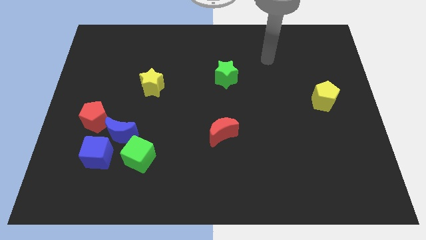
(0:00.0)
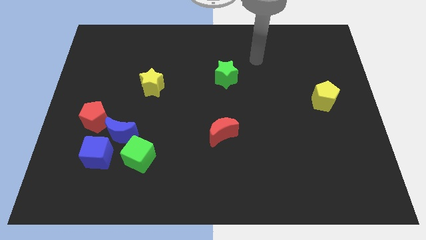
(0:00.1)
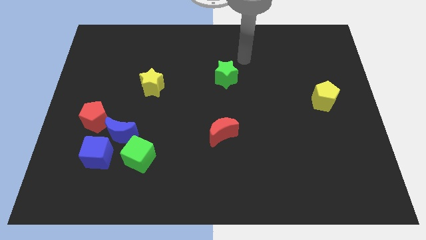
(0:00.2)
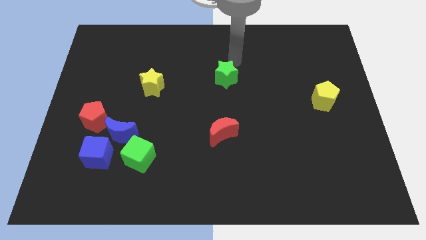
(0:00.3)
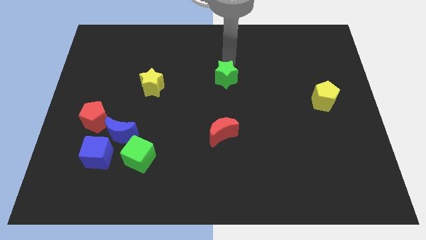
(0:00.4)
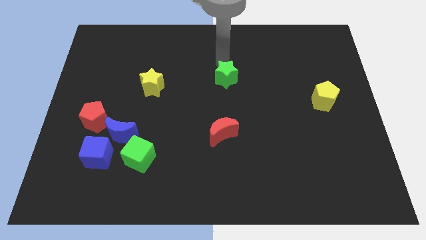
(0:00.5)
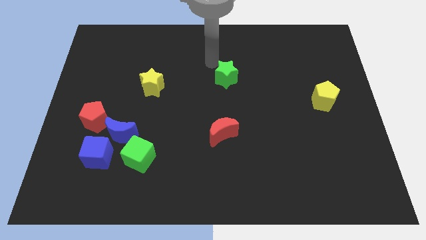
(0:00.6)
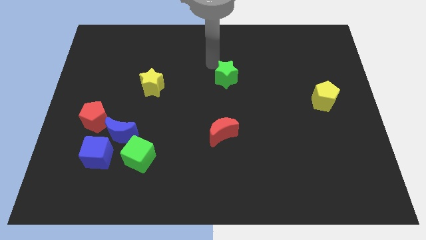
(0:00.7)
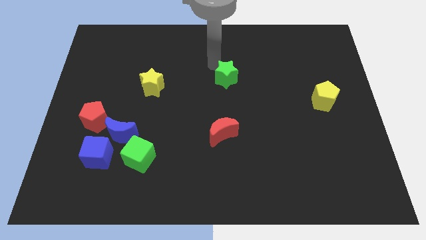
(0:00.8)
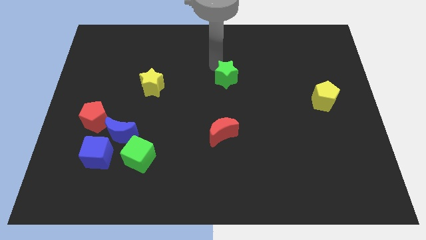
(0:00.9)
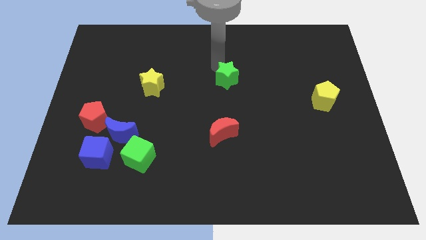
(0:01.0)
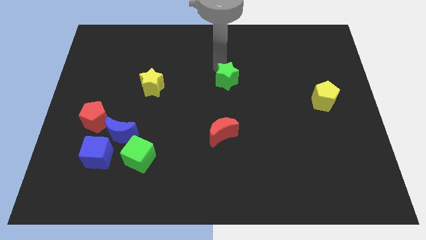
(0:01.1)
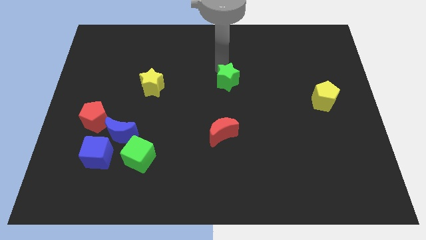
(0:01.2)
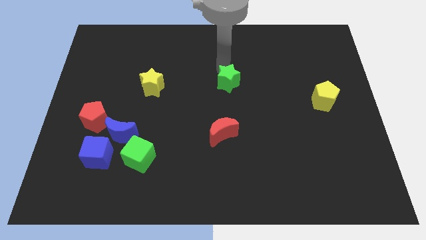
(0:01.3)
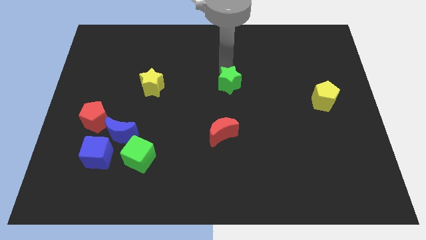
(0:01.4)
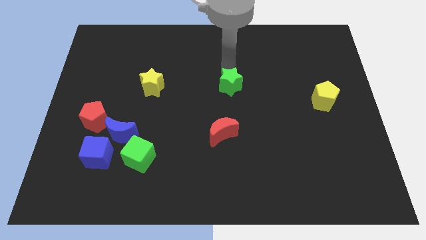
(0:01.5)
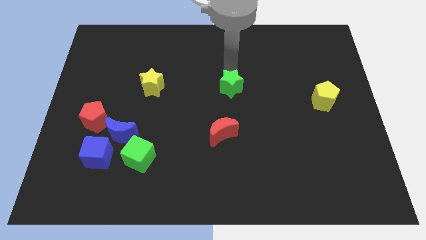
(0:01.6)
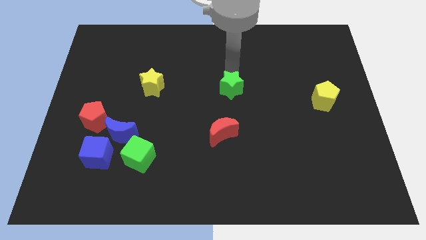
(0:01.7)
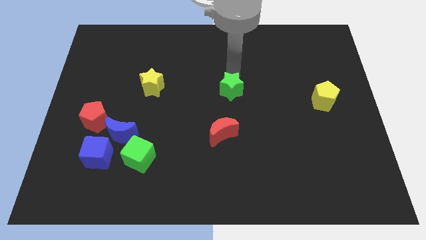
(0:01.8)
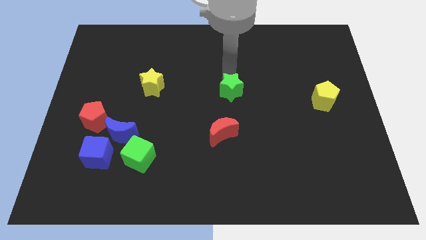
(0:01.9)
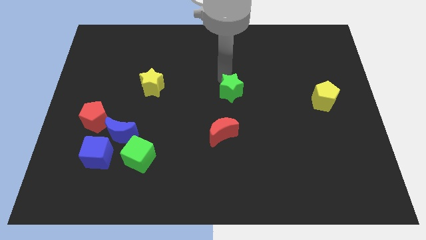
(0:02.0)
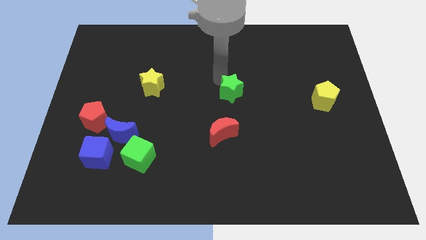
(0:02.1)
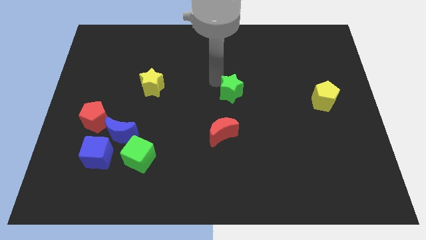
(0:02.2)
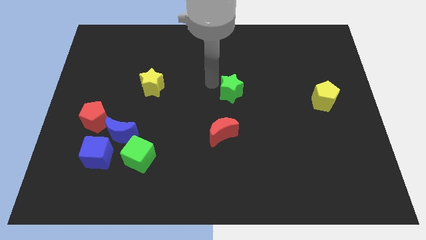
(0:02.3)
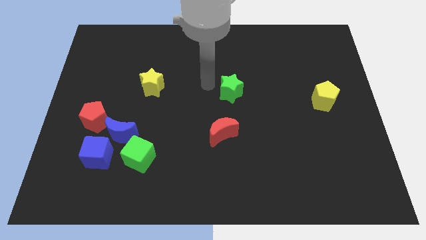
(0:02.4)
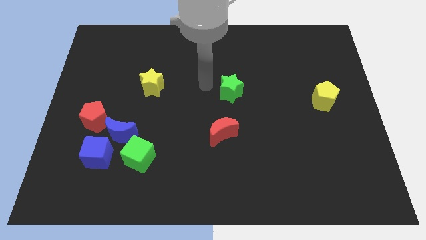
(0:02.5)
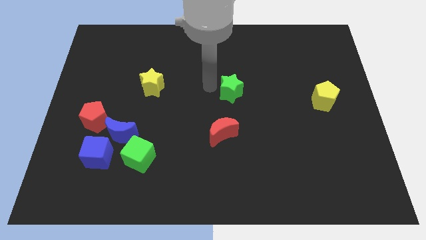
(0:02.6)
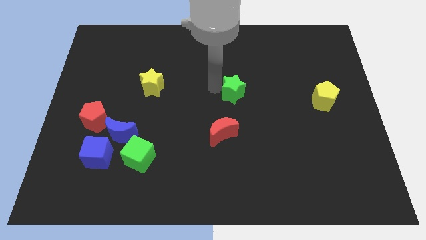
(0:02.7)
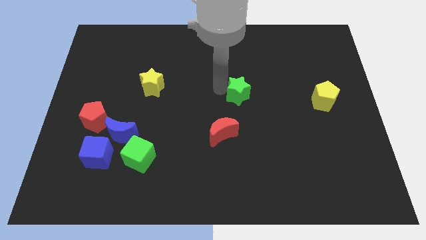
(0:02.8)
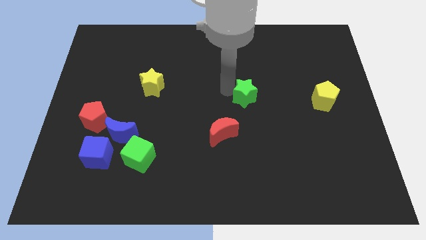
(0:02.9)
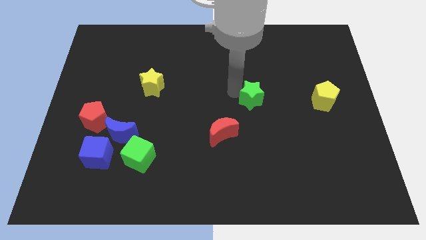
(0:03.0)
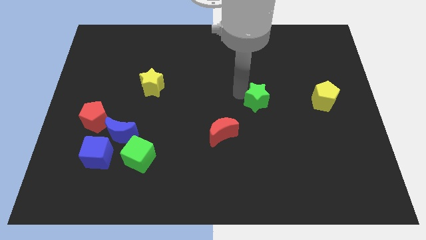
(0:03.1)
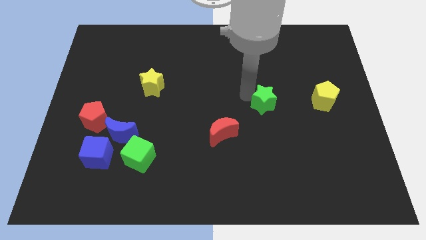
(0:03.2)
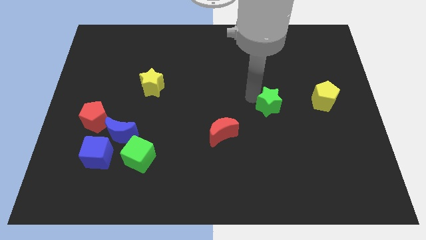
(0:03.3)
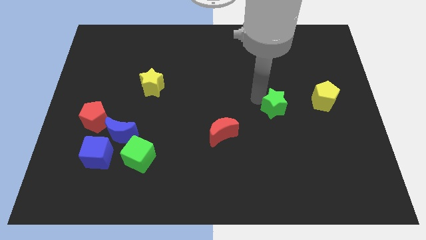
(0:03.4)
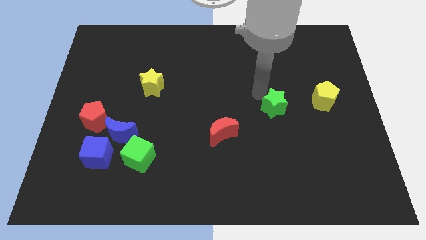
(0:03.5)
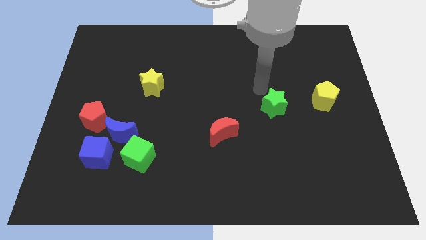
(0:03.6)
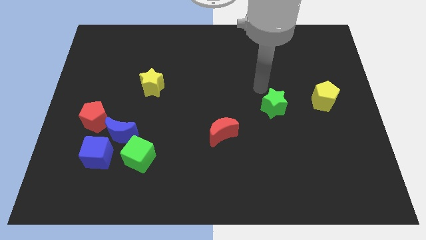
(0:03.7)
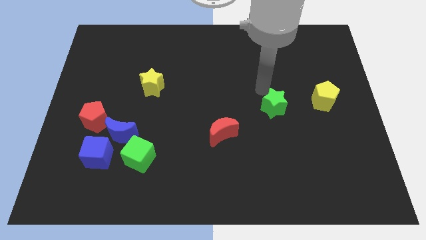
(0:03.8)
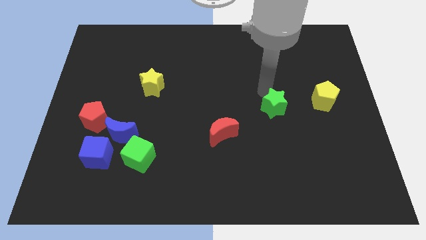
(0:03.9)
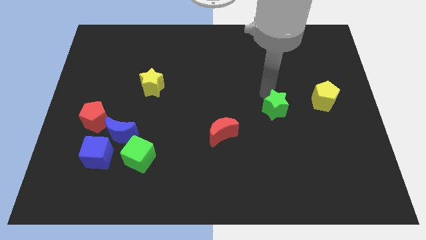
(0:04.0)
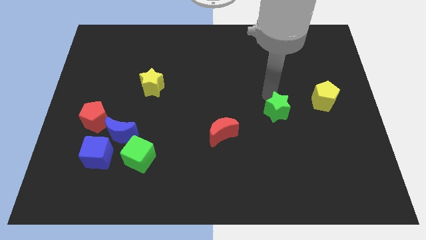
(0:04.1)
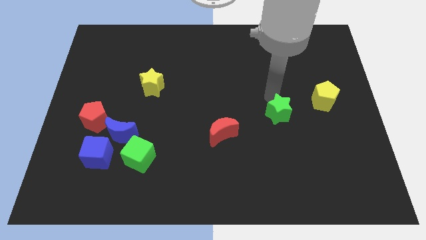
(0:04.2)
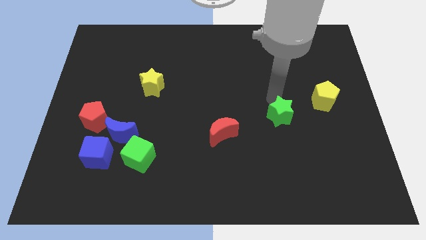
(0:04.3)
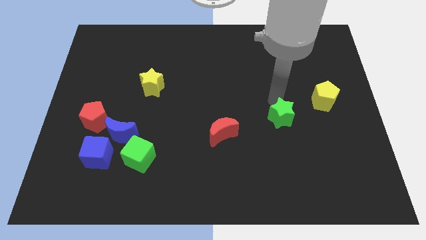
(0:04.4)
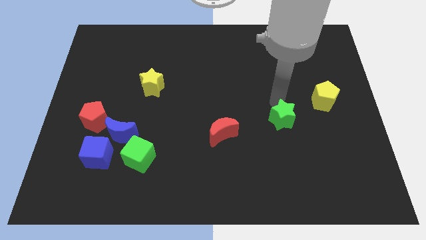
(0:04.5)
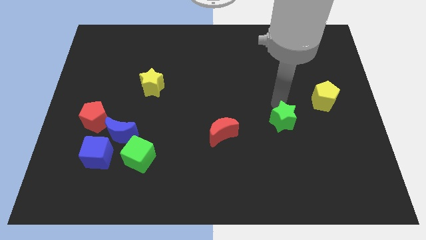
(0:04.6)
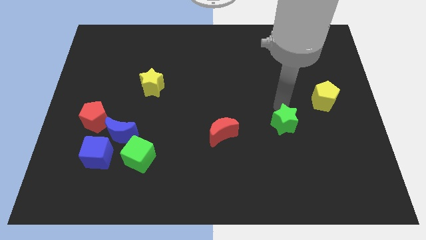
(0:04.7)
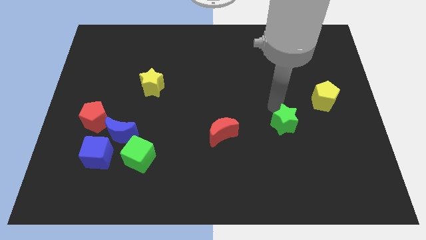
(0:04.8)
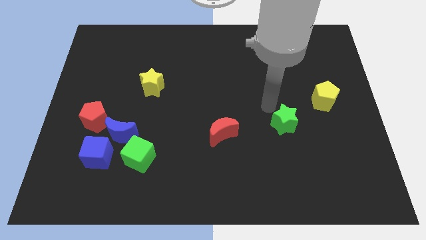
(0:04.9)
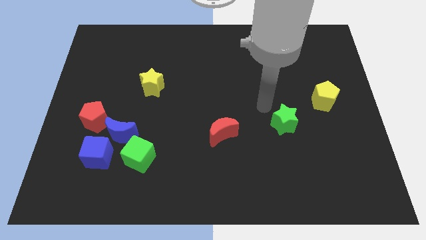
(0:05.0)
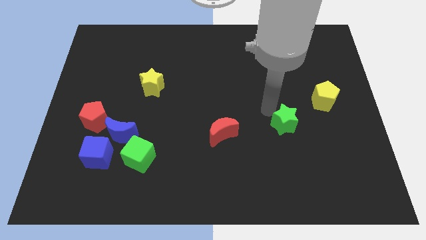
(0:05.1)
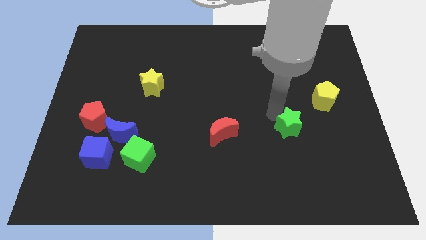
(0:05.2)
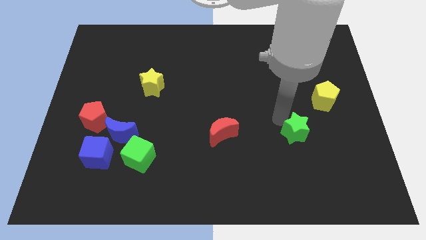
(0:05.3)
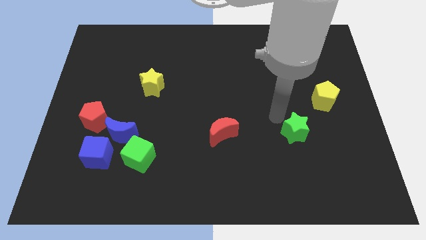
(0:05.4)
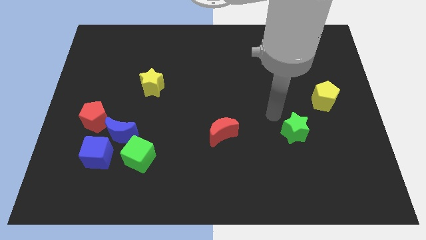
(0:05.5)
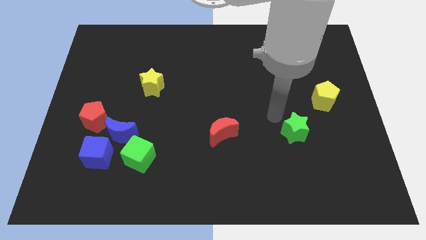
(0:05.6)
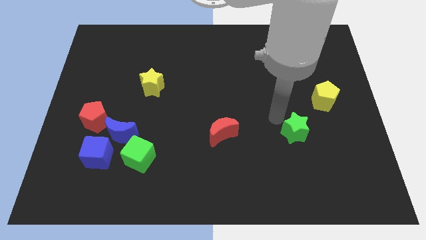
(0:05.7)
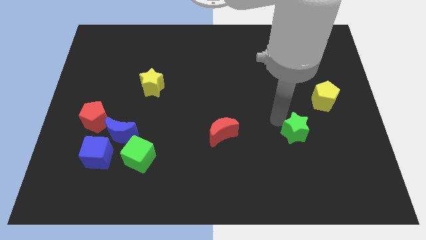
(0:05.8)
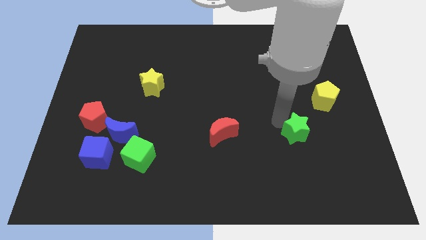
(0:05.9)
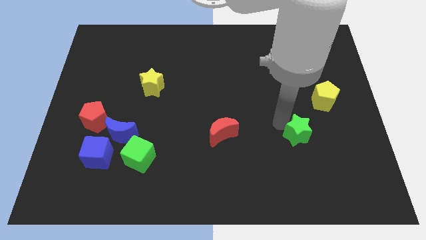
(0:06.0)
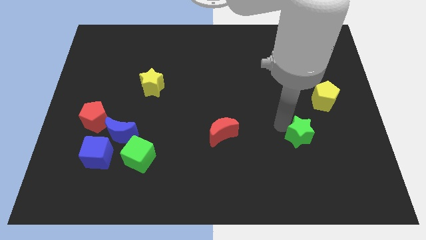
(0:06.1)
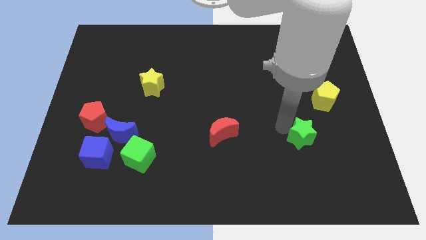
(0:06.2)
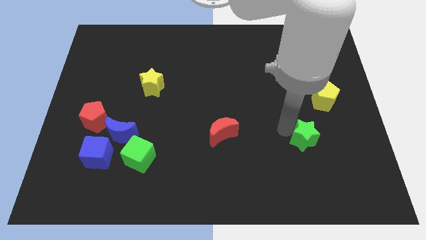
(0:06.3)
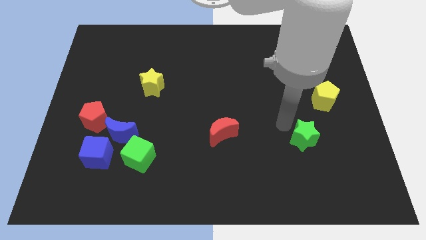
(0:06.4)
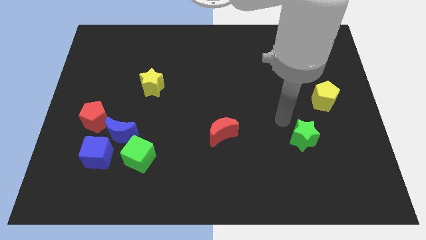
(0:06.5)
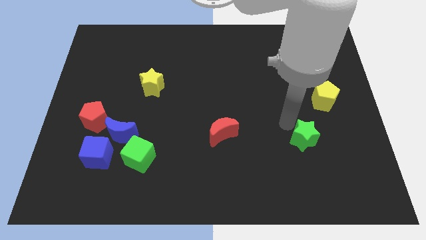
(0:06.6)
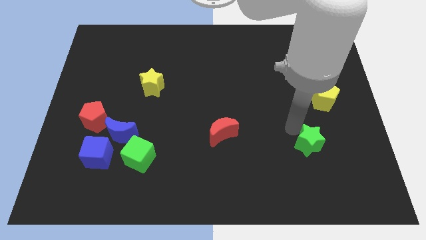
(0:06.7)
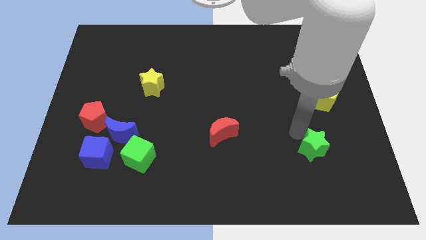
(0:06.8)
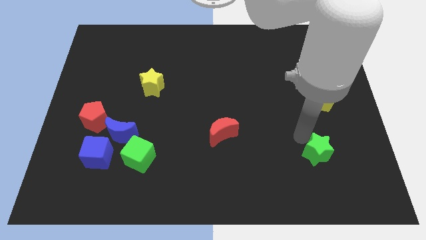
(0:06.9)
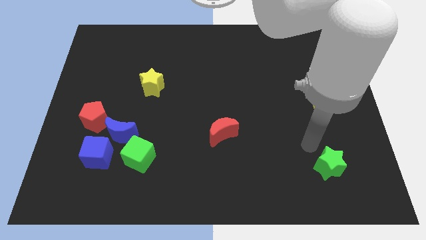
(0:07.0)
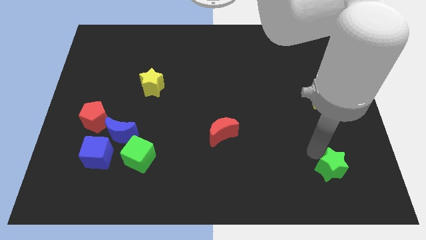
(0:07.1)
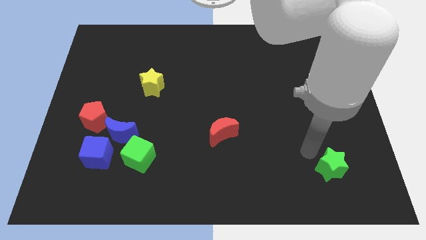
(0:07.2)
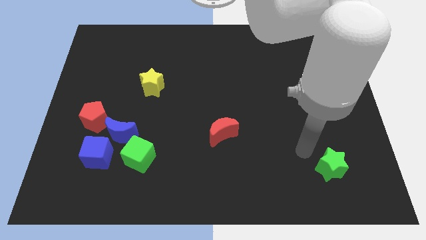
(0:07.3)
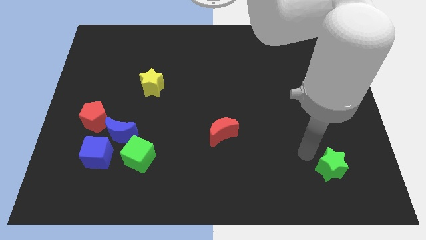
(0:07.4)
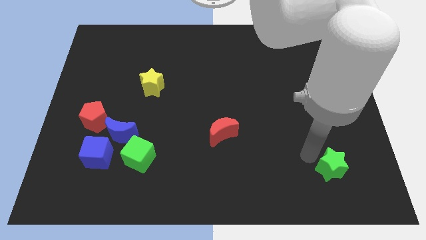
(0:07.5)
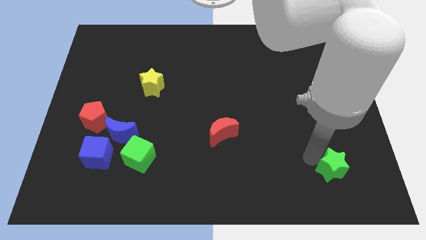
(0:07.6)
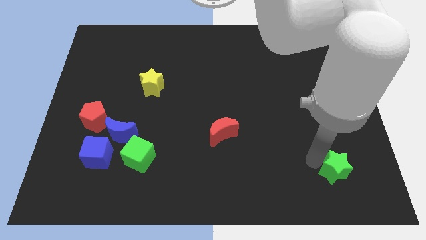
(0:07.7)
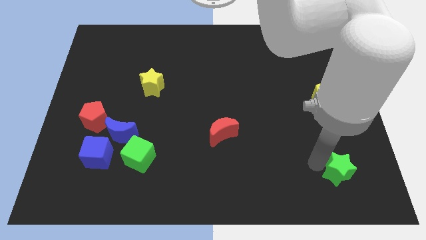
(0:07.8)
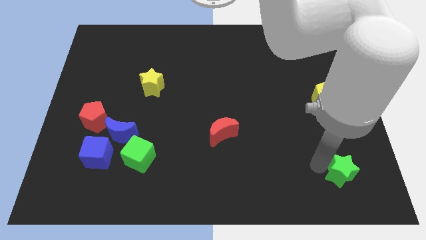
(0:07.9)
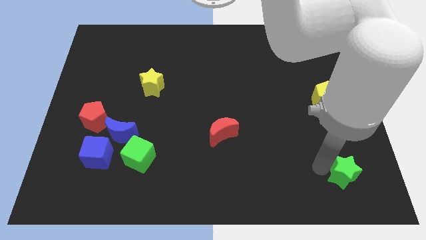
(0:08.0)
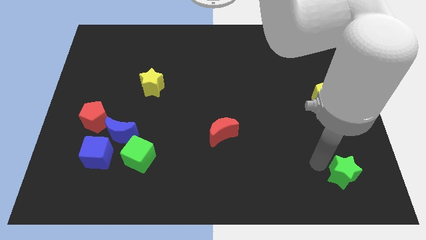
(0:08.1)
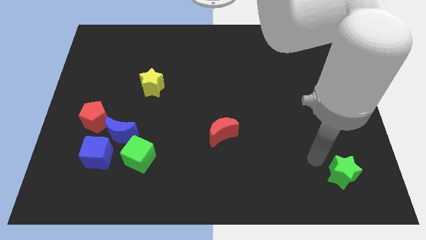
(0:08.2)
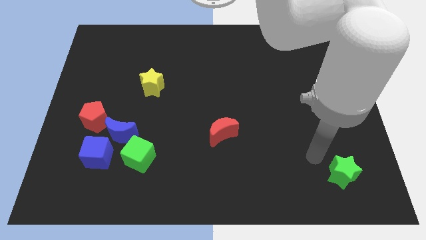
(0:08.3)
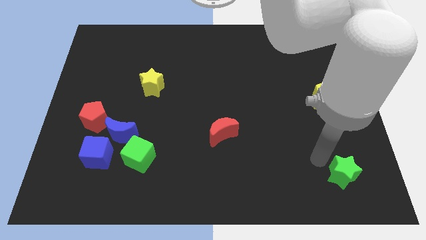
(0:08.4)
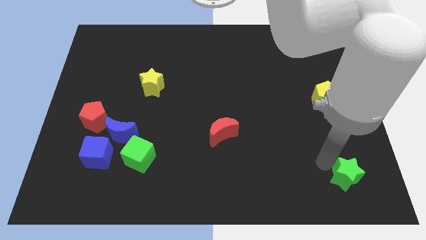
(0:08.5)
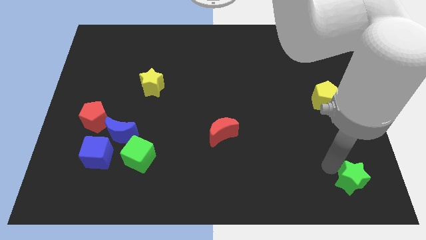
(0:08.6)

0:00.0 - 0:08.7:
slide the green star to the lower right corner
